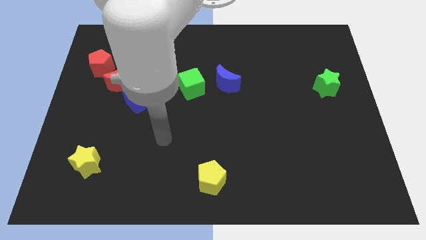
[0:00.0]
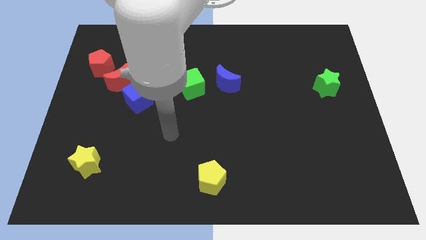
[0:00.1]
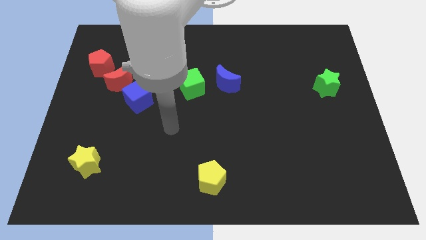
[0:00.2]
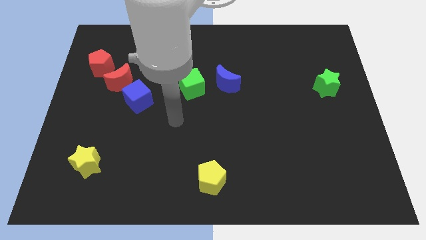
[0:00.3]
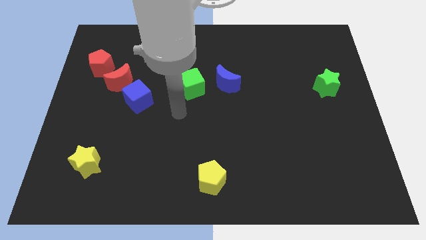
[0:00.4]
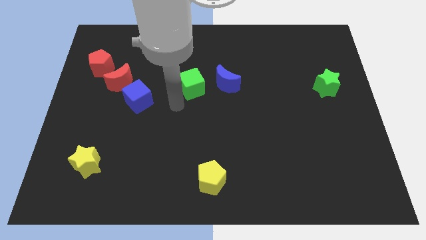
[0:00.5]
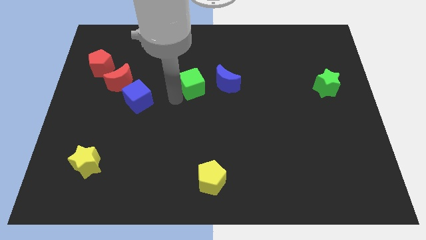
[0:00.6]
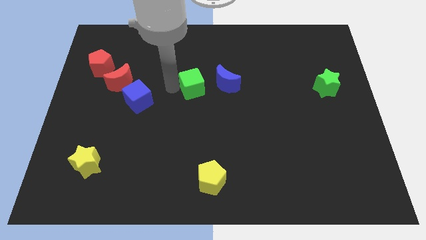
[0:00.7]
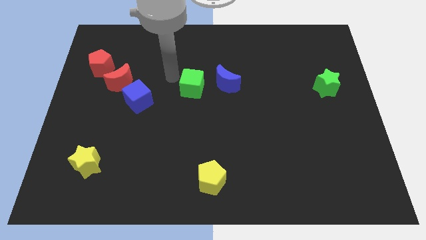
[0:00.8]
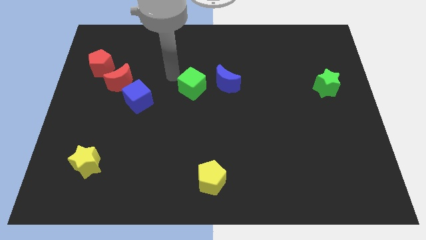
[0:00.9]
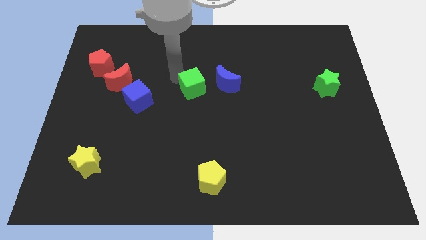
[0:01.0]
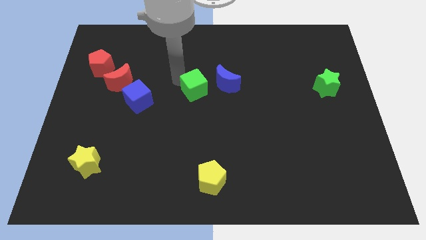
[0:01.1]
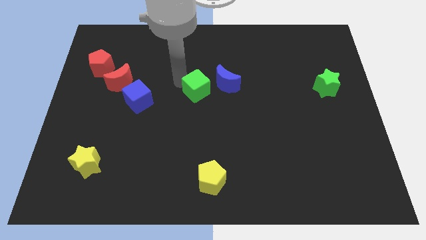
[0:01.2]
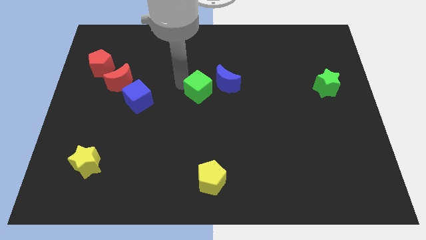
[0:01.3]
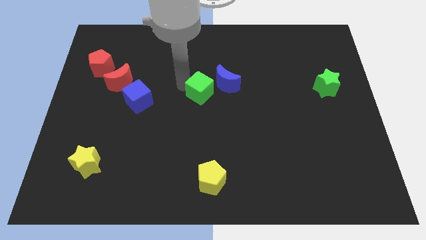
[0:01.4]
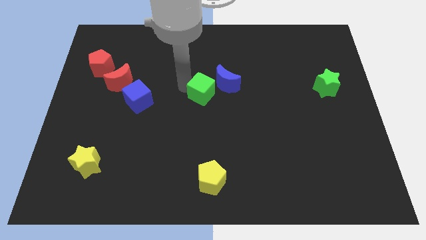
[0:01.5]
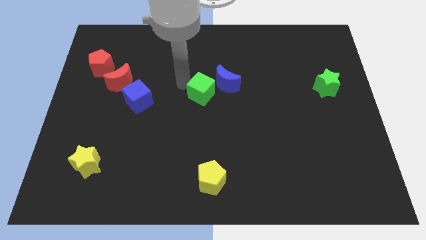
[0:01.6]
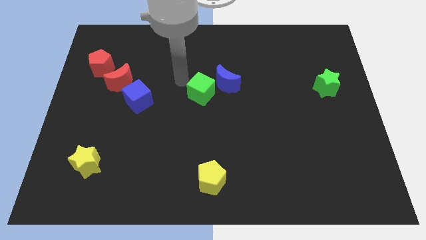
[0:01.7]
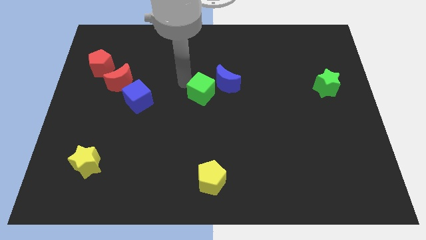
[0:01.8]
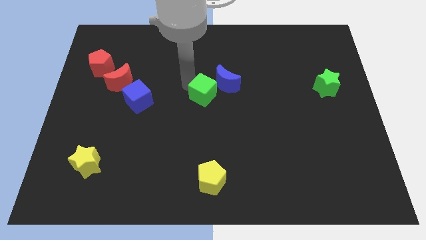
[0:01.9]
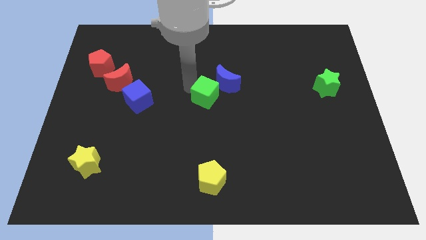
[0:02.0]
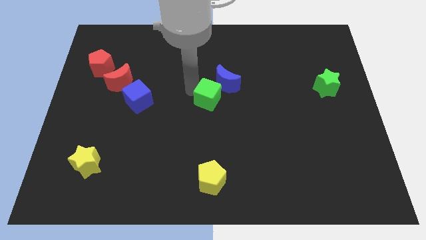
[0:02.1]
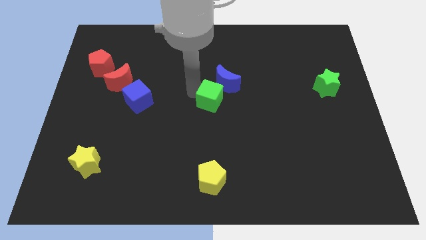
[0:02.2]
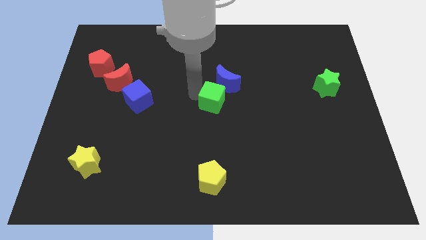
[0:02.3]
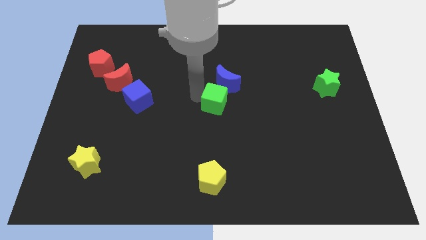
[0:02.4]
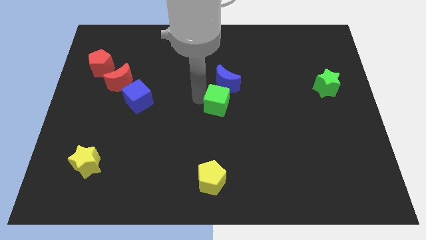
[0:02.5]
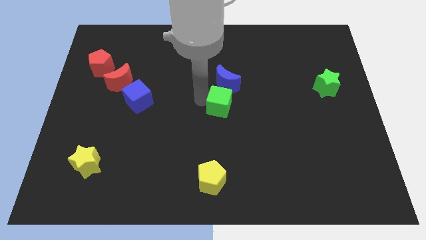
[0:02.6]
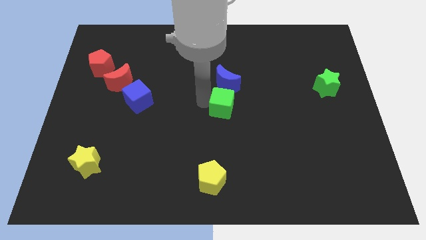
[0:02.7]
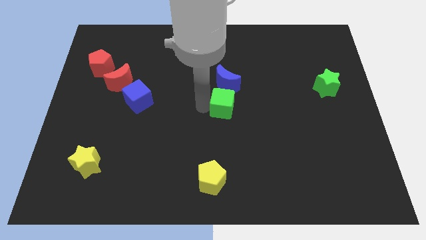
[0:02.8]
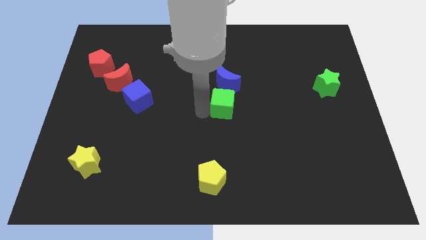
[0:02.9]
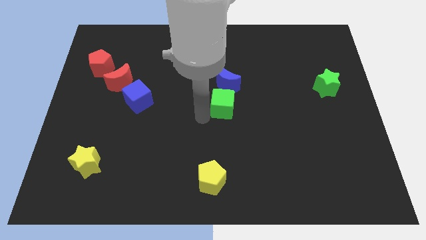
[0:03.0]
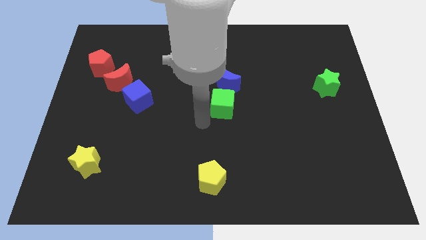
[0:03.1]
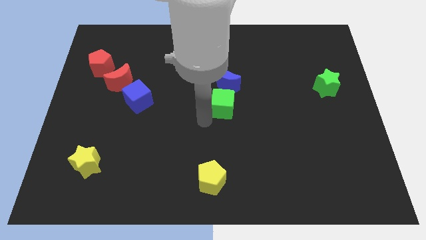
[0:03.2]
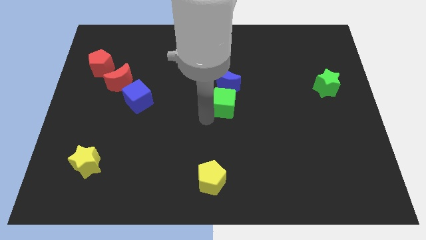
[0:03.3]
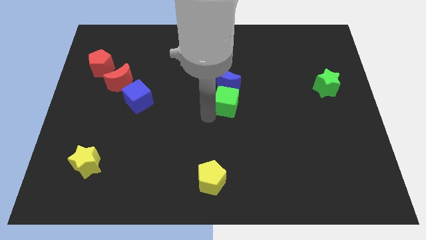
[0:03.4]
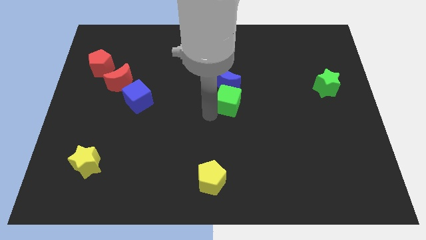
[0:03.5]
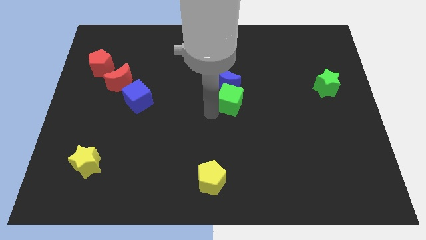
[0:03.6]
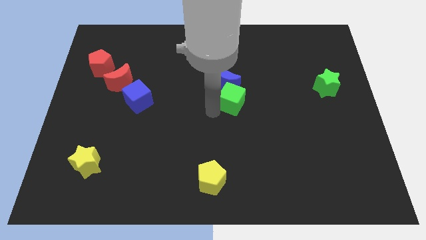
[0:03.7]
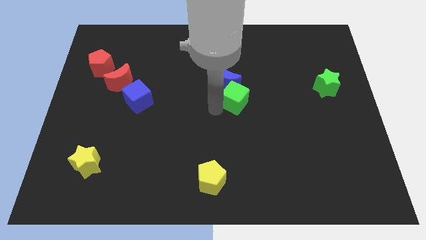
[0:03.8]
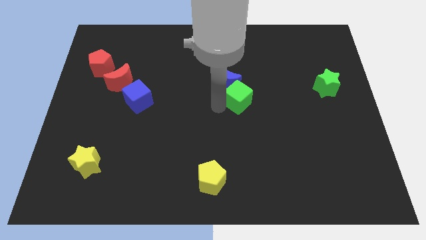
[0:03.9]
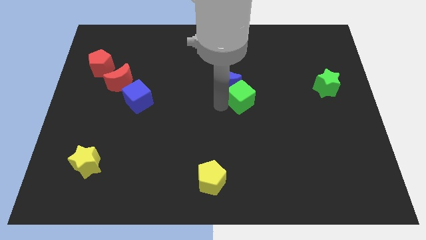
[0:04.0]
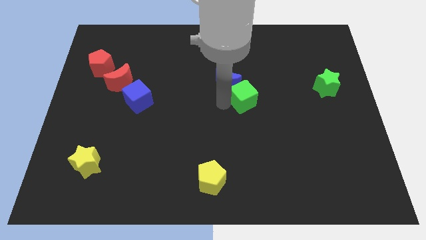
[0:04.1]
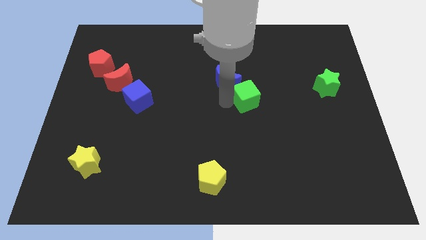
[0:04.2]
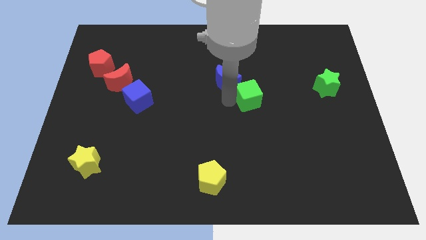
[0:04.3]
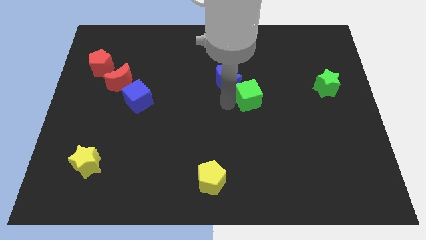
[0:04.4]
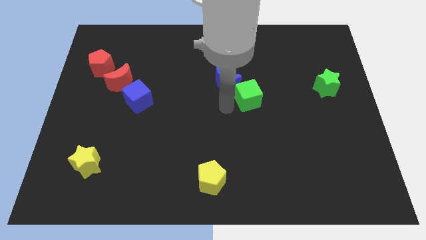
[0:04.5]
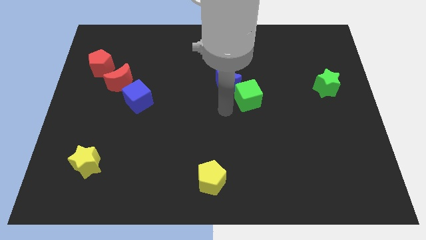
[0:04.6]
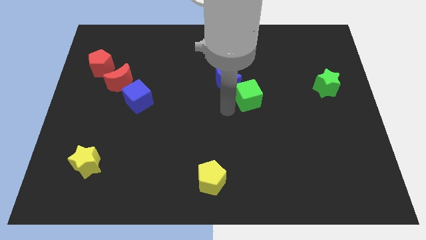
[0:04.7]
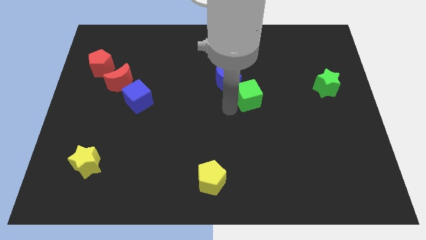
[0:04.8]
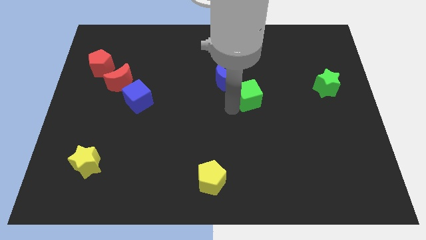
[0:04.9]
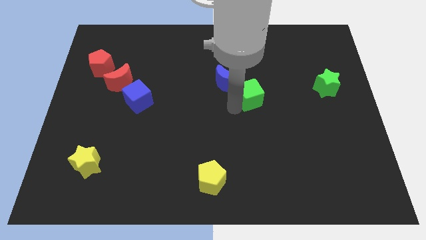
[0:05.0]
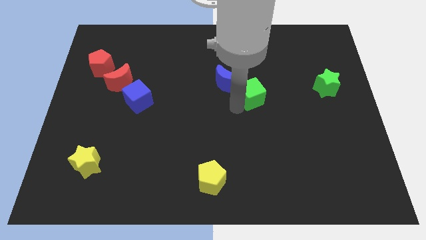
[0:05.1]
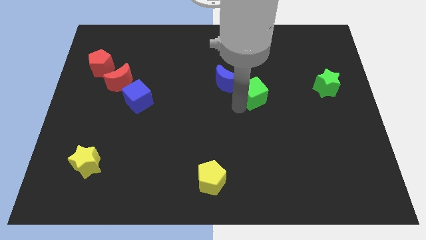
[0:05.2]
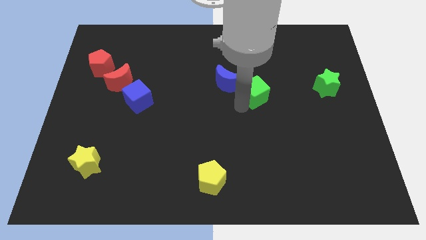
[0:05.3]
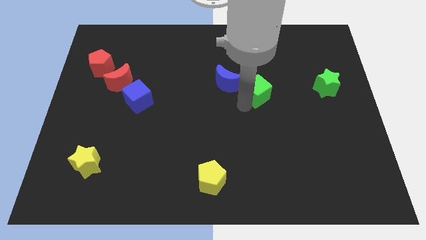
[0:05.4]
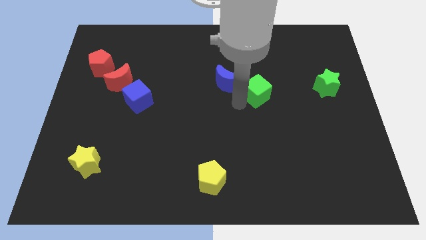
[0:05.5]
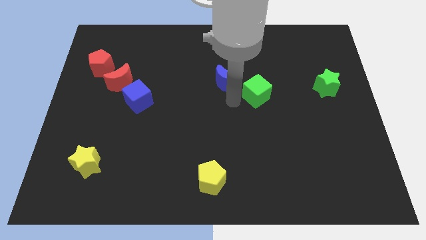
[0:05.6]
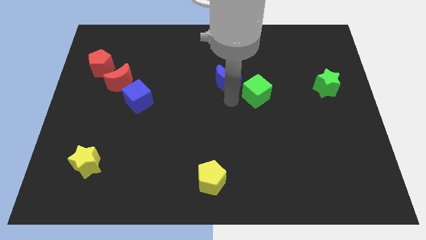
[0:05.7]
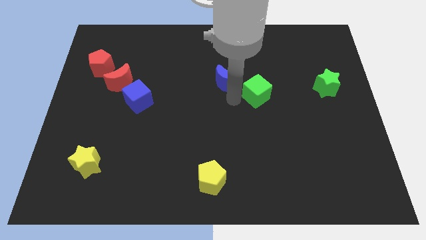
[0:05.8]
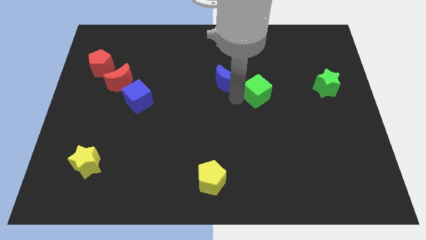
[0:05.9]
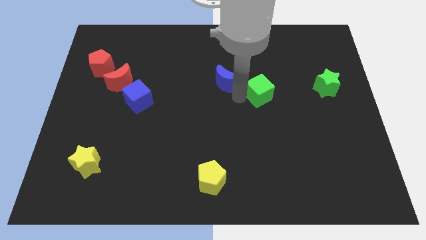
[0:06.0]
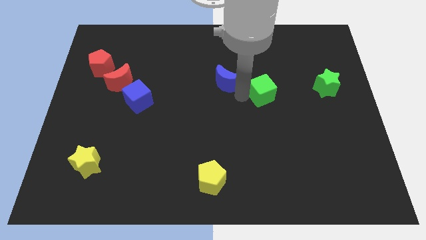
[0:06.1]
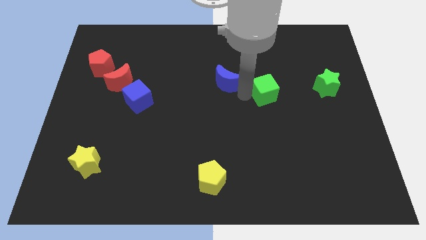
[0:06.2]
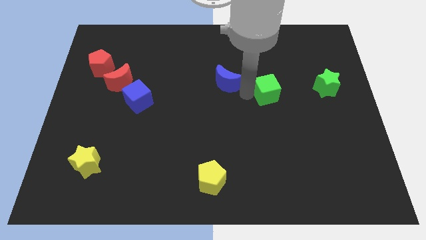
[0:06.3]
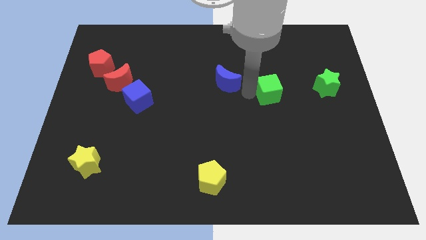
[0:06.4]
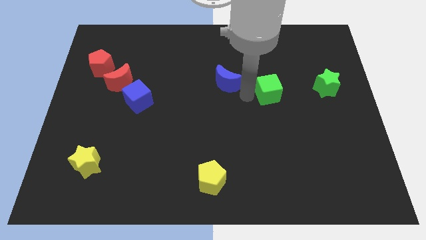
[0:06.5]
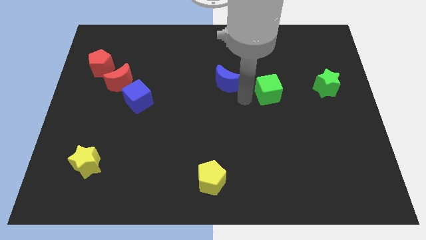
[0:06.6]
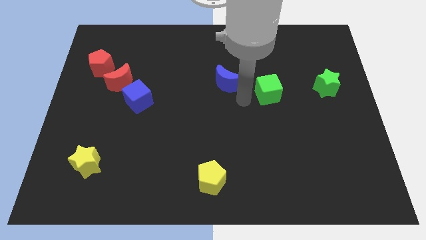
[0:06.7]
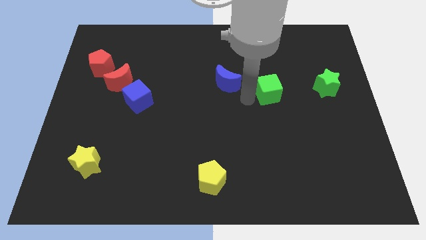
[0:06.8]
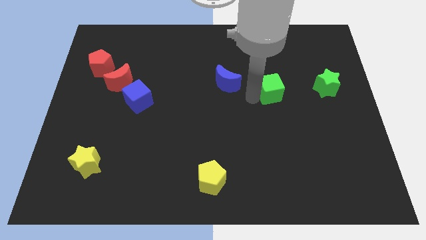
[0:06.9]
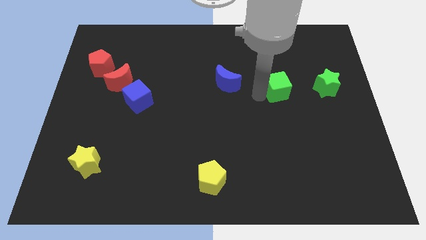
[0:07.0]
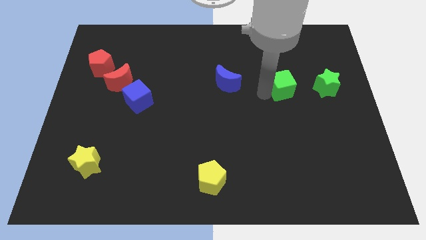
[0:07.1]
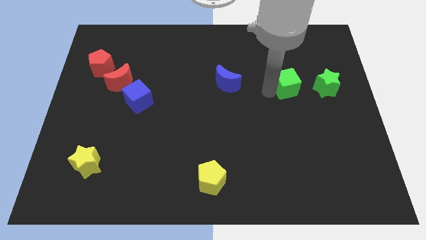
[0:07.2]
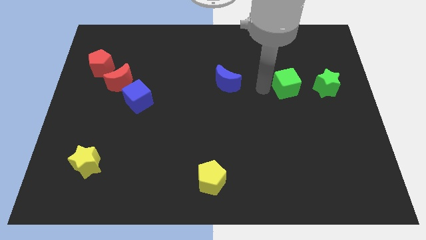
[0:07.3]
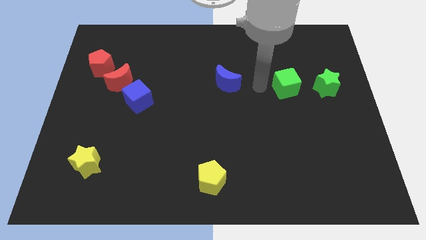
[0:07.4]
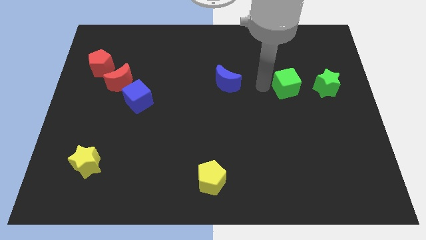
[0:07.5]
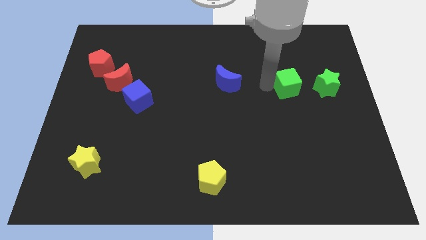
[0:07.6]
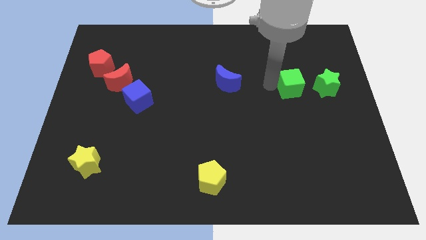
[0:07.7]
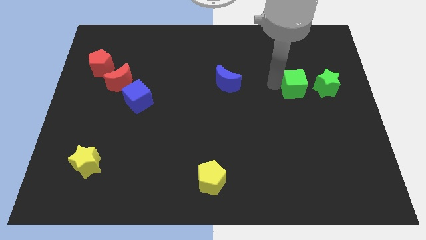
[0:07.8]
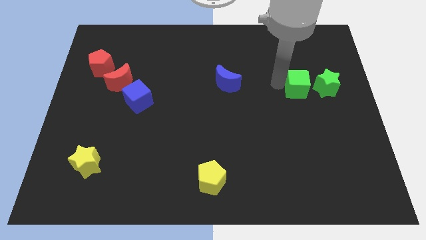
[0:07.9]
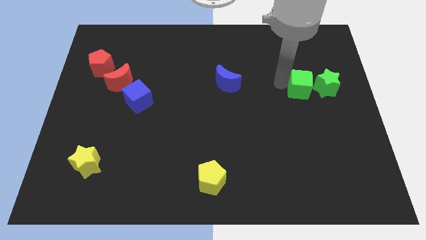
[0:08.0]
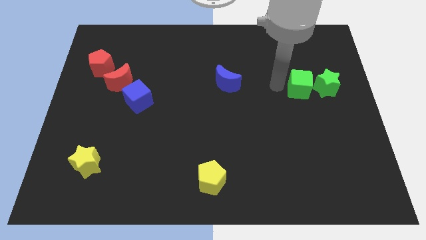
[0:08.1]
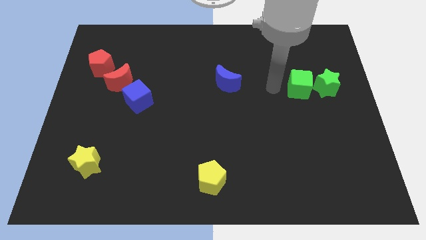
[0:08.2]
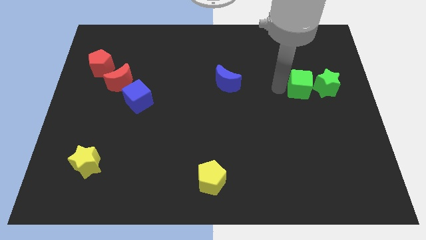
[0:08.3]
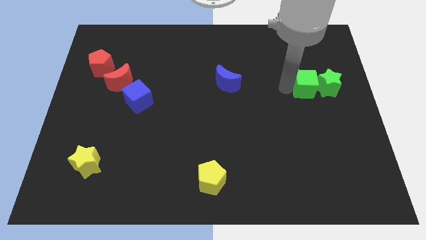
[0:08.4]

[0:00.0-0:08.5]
move the green cube towards the green star
